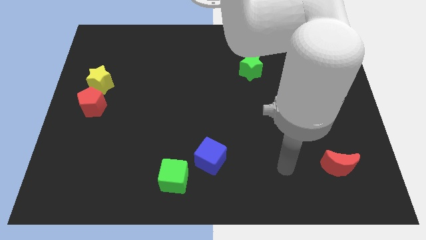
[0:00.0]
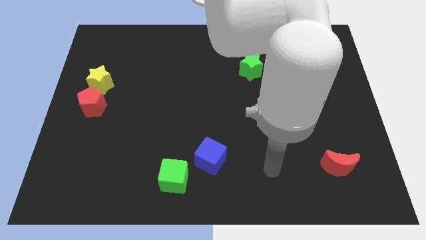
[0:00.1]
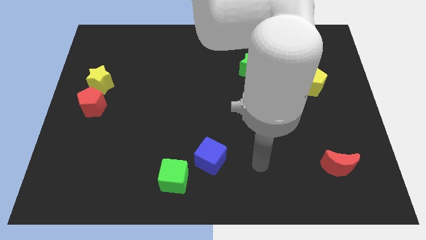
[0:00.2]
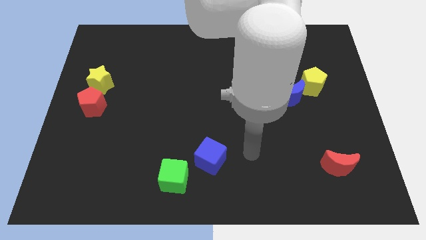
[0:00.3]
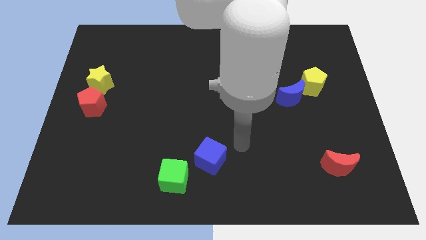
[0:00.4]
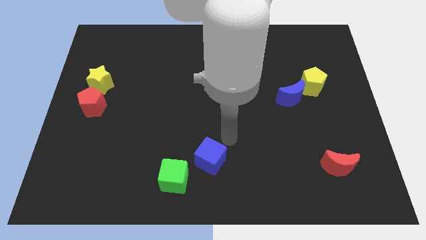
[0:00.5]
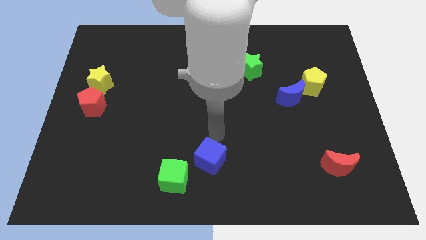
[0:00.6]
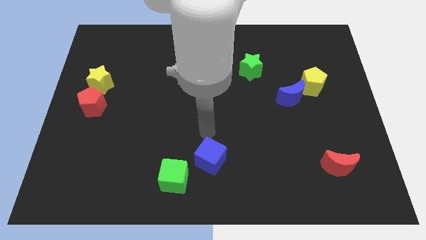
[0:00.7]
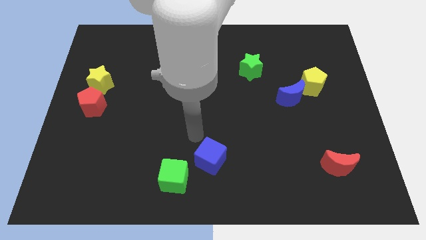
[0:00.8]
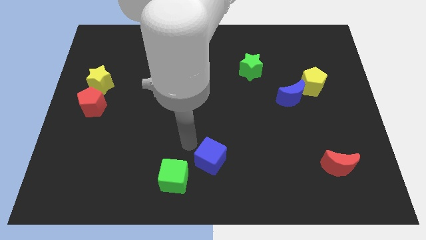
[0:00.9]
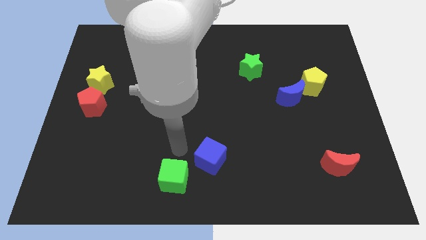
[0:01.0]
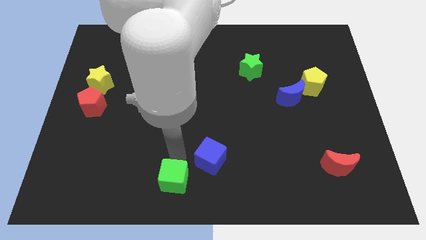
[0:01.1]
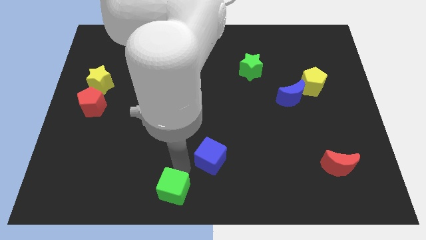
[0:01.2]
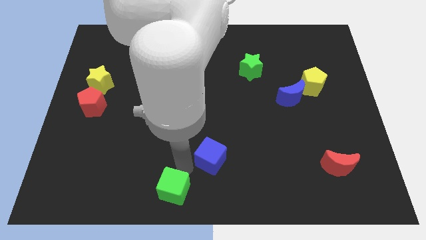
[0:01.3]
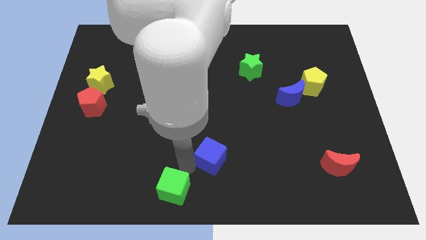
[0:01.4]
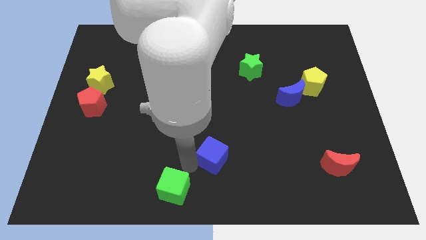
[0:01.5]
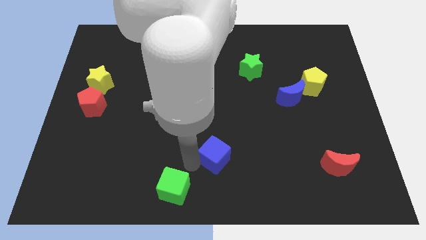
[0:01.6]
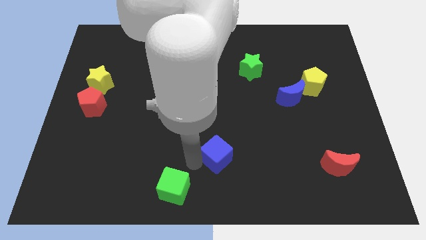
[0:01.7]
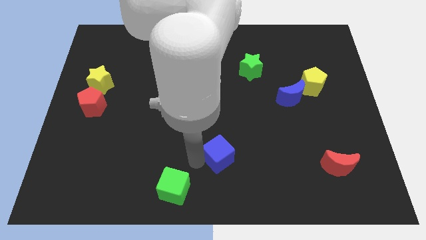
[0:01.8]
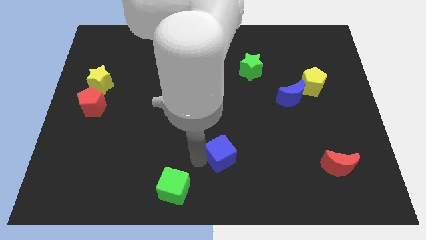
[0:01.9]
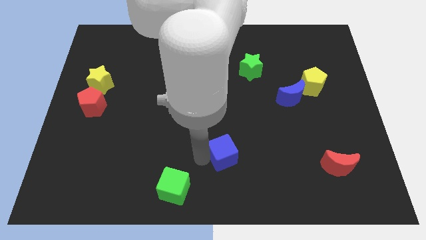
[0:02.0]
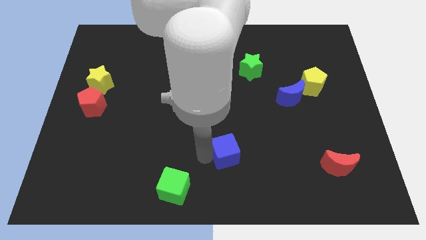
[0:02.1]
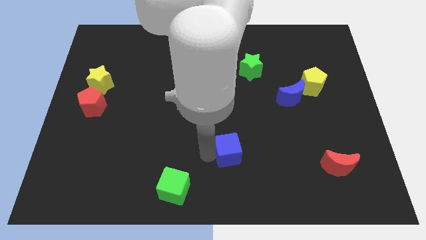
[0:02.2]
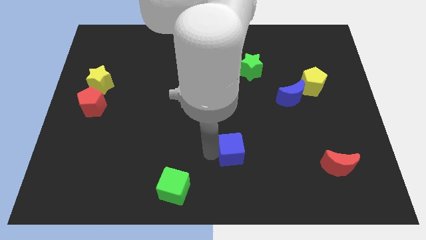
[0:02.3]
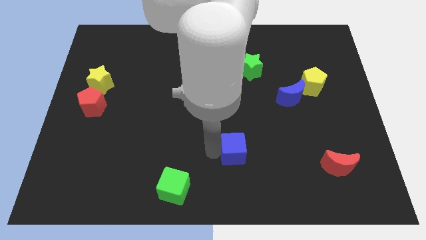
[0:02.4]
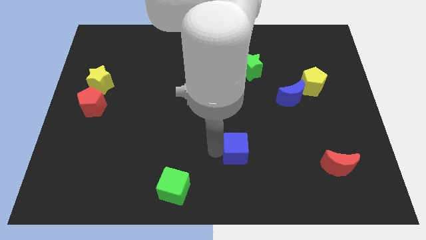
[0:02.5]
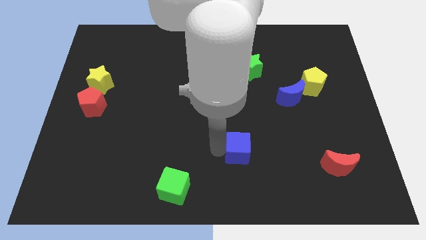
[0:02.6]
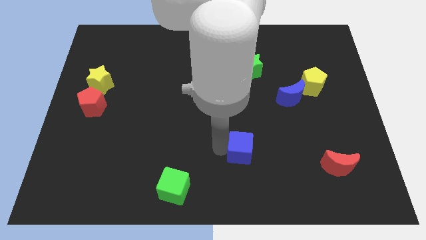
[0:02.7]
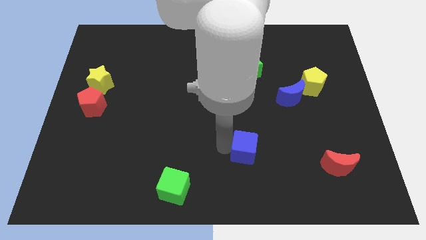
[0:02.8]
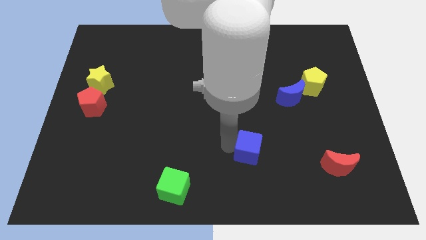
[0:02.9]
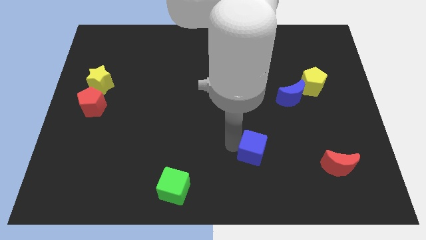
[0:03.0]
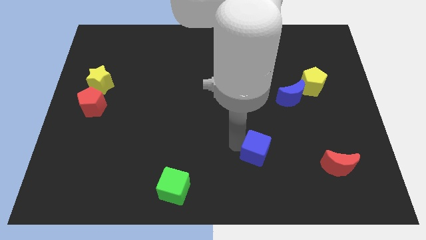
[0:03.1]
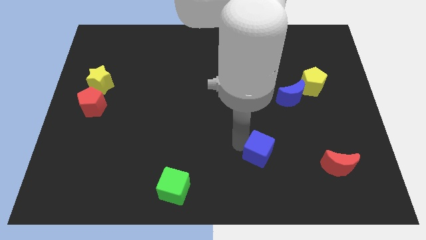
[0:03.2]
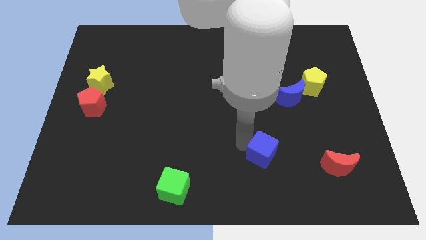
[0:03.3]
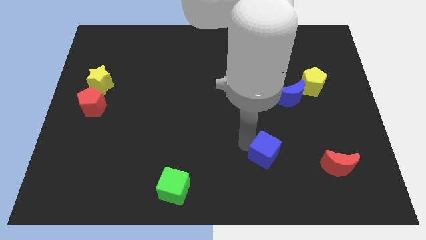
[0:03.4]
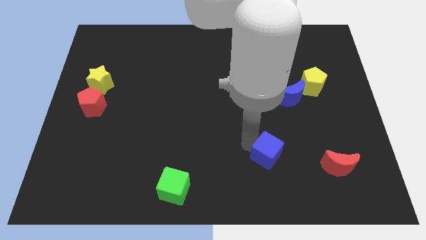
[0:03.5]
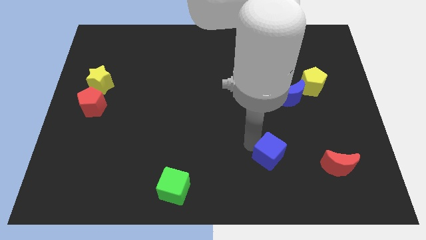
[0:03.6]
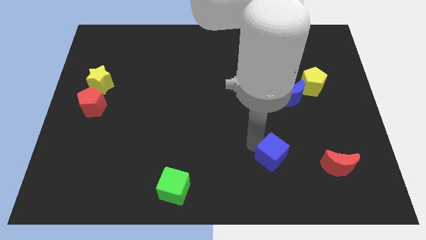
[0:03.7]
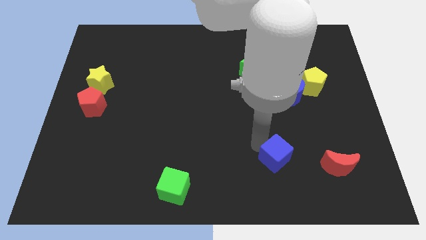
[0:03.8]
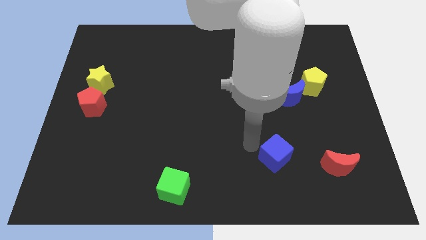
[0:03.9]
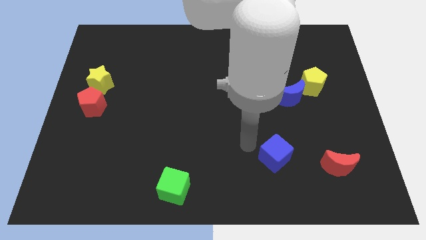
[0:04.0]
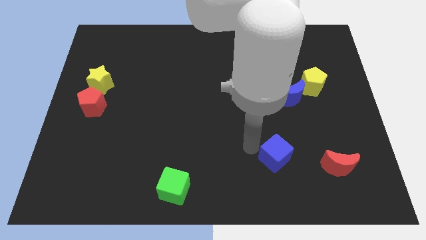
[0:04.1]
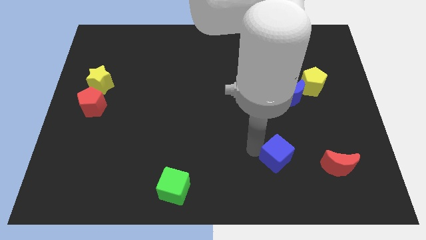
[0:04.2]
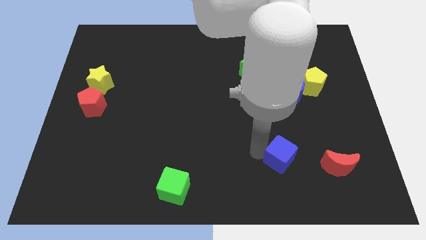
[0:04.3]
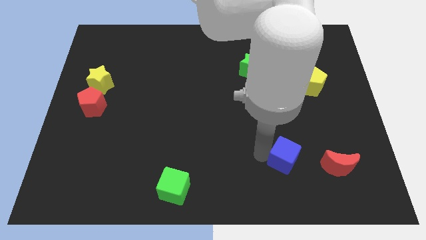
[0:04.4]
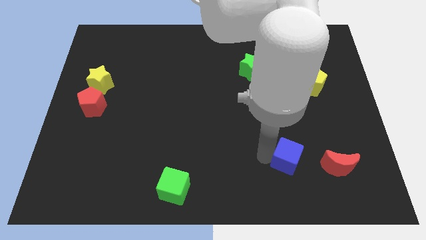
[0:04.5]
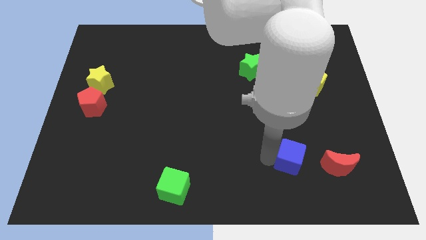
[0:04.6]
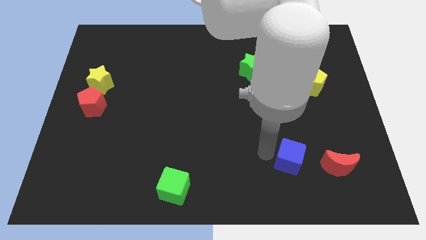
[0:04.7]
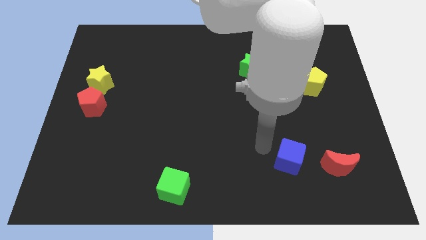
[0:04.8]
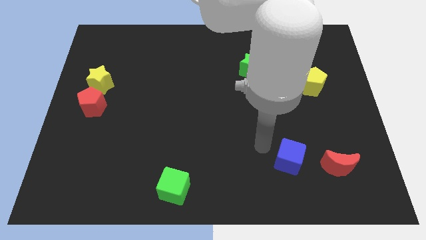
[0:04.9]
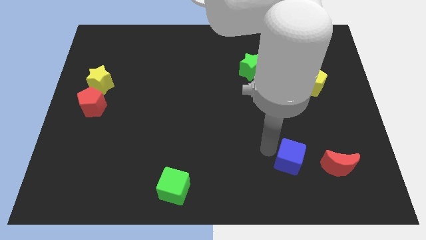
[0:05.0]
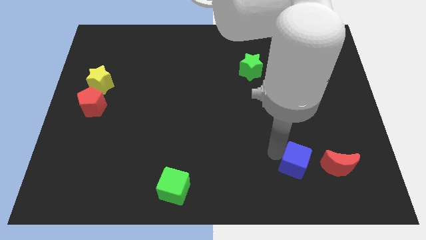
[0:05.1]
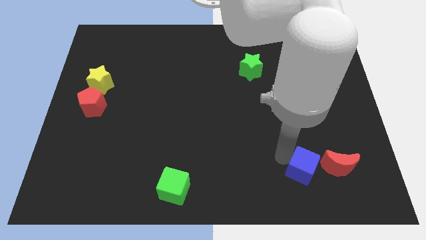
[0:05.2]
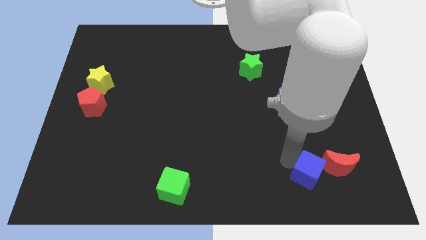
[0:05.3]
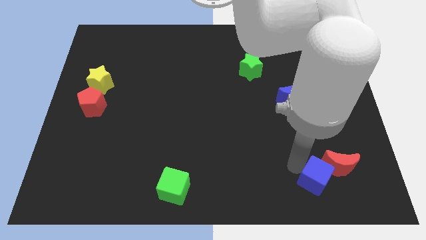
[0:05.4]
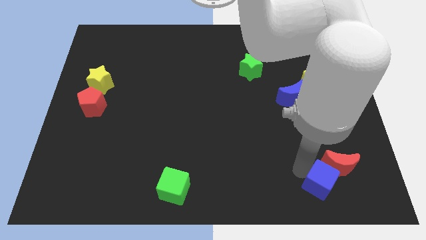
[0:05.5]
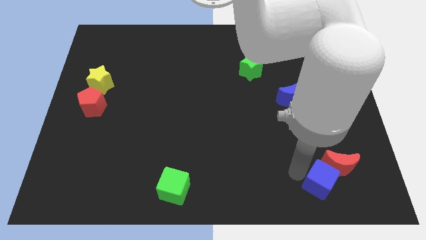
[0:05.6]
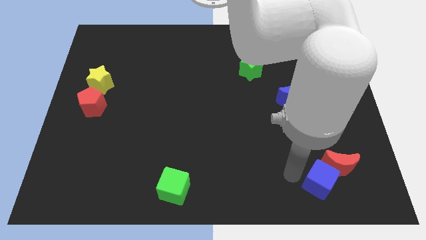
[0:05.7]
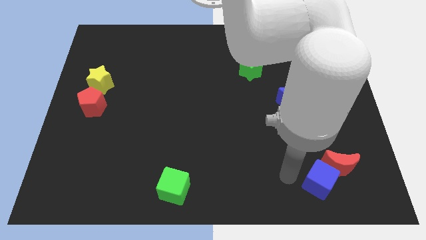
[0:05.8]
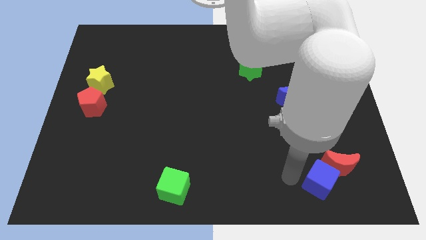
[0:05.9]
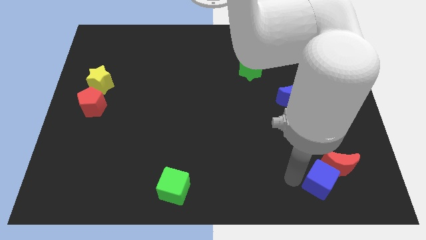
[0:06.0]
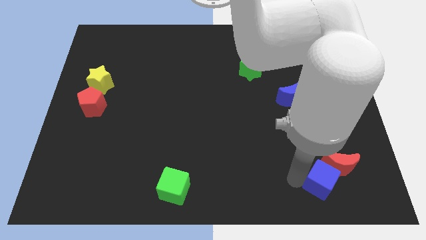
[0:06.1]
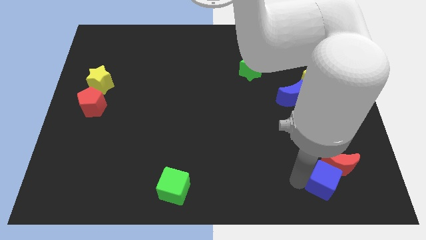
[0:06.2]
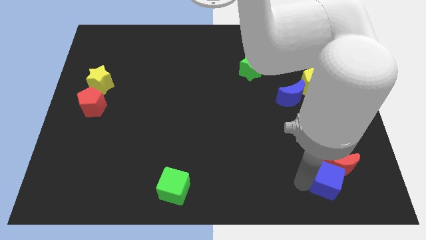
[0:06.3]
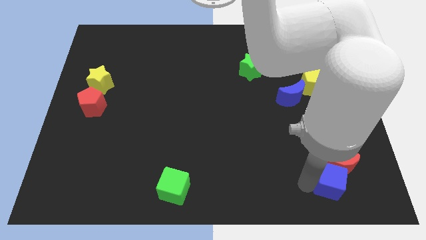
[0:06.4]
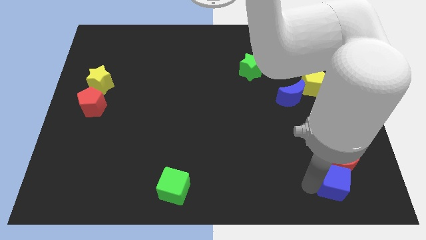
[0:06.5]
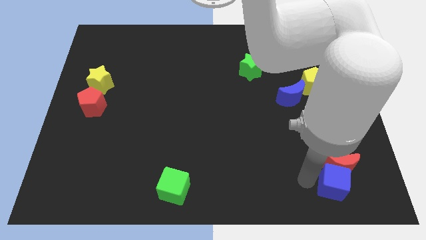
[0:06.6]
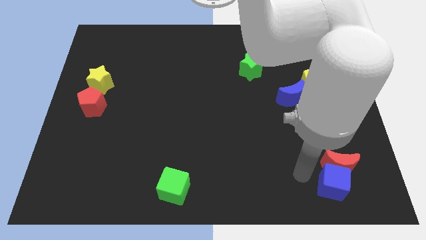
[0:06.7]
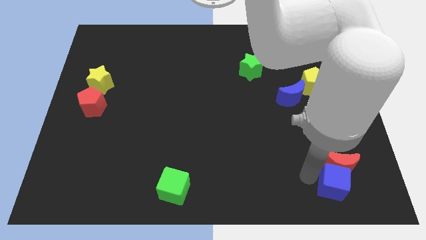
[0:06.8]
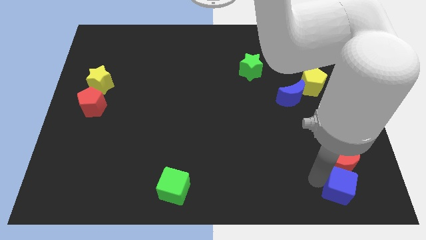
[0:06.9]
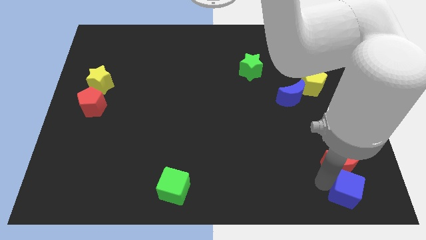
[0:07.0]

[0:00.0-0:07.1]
push the blue cube to the bottom right corner
